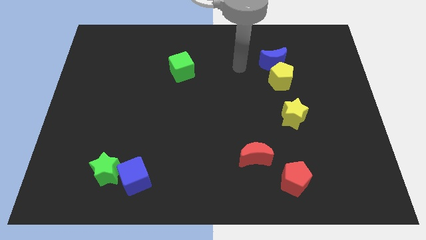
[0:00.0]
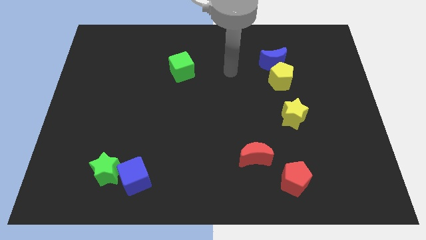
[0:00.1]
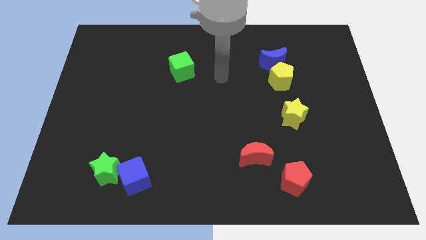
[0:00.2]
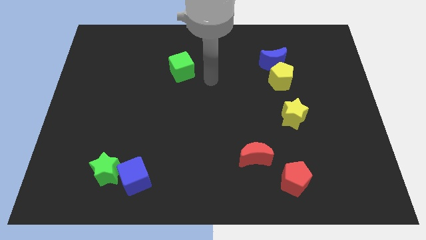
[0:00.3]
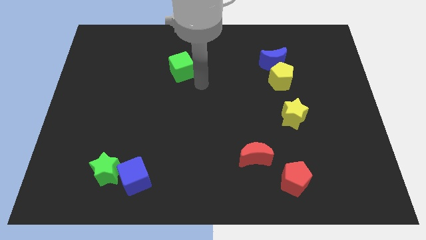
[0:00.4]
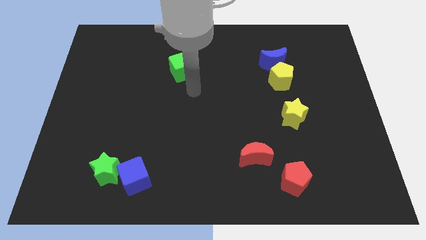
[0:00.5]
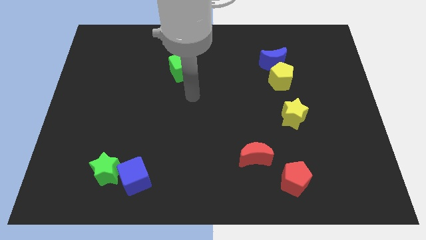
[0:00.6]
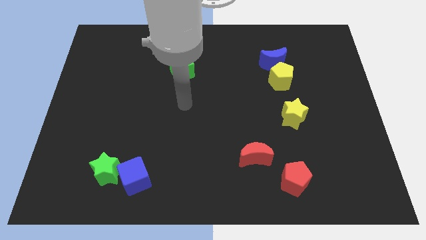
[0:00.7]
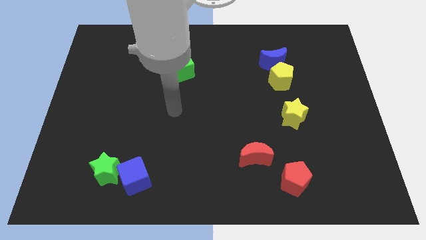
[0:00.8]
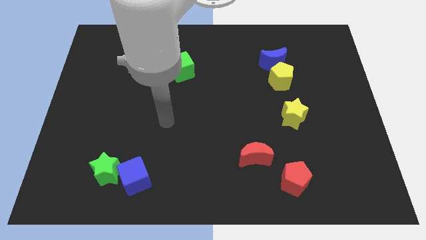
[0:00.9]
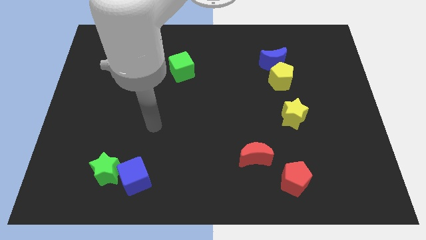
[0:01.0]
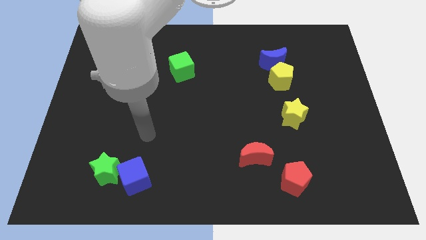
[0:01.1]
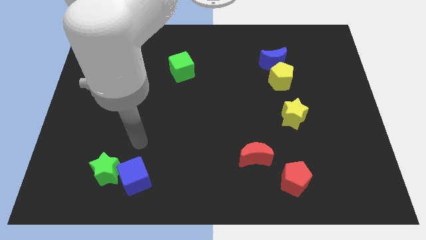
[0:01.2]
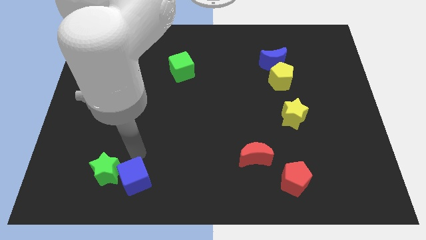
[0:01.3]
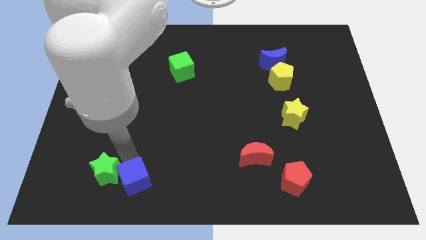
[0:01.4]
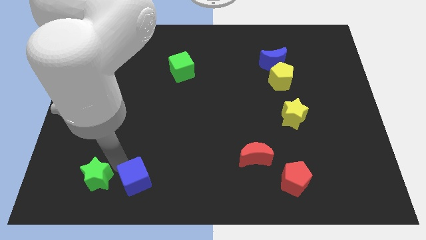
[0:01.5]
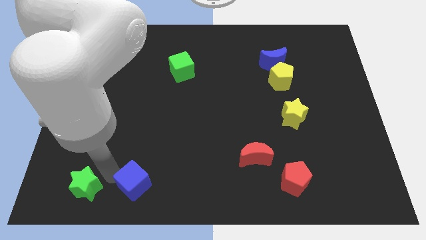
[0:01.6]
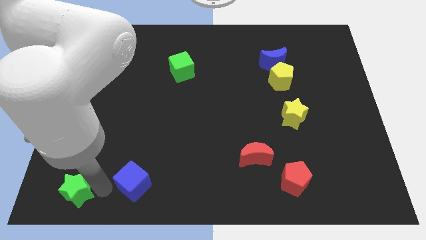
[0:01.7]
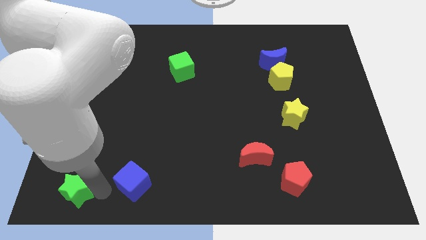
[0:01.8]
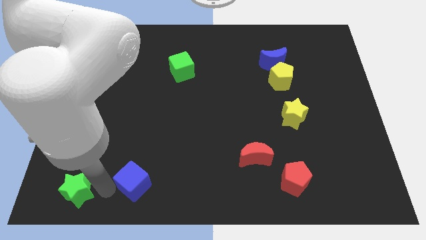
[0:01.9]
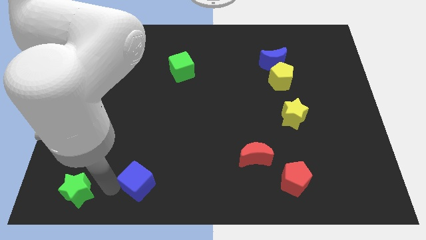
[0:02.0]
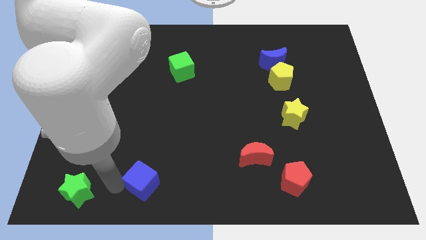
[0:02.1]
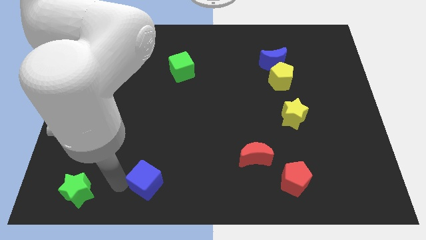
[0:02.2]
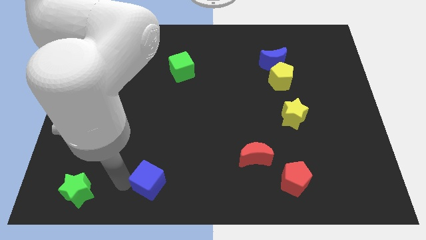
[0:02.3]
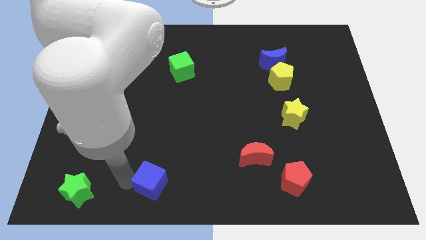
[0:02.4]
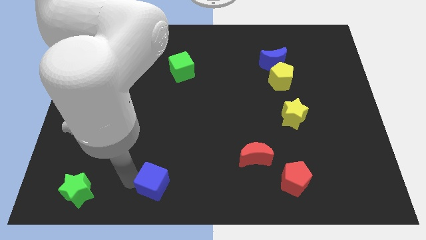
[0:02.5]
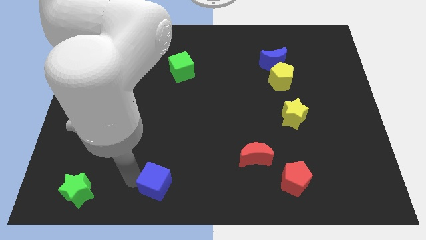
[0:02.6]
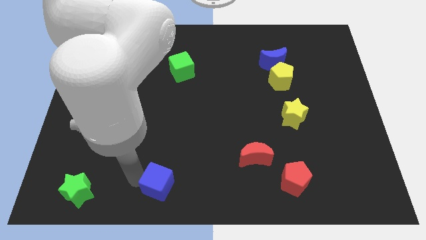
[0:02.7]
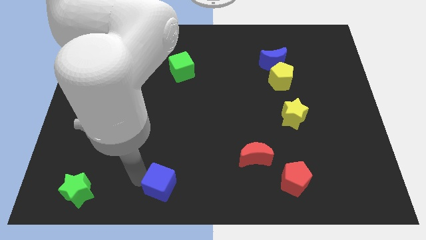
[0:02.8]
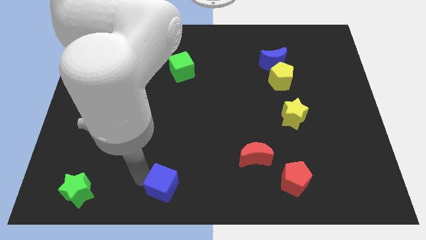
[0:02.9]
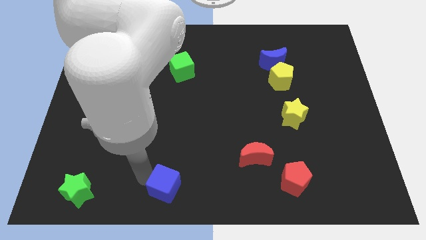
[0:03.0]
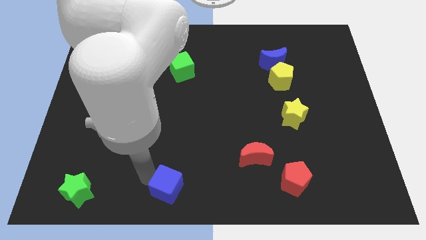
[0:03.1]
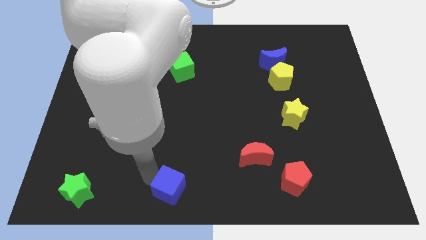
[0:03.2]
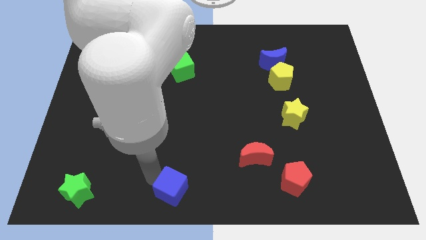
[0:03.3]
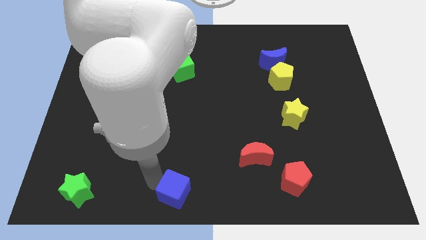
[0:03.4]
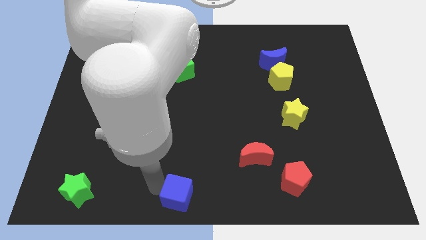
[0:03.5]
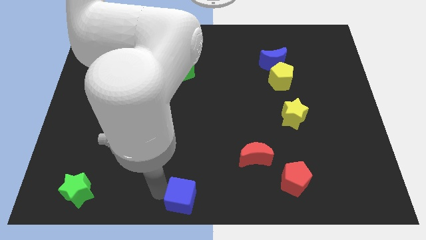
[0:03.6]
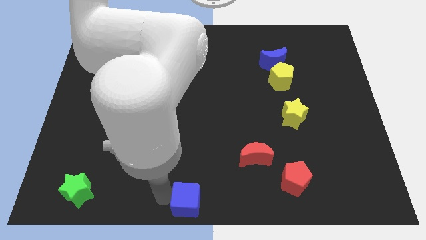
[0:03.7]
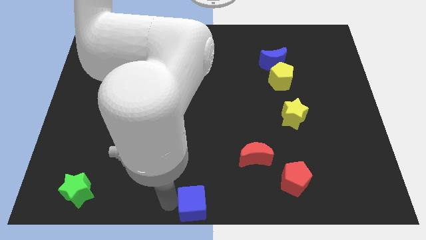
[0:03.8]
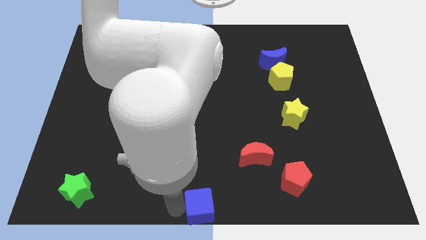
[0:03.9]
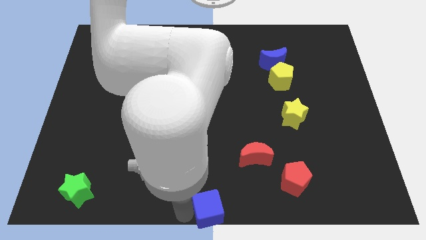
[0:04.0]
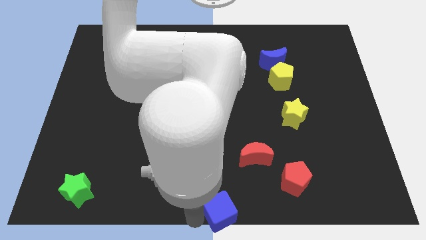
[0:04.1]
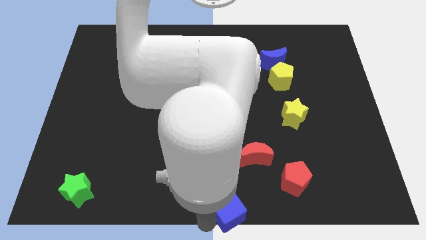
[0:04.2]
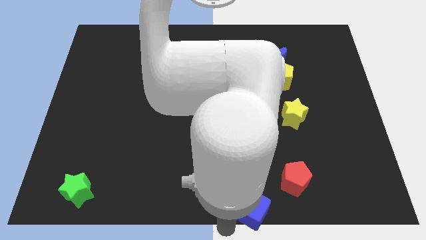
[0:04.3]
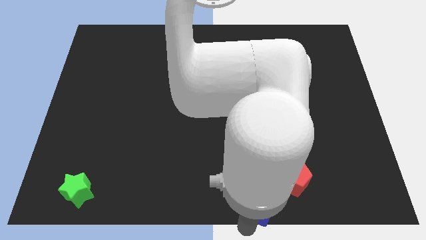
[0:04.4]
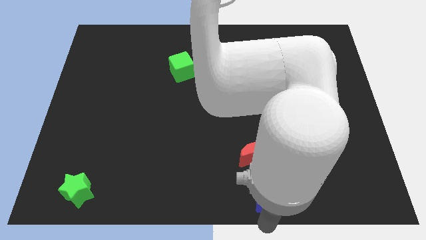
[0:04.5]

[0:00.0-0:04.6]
put the blue cube next to the red pentagon

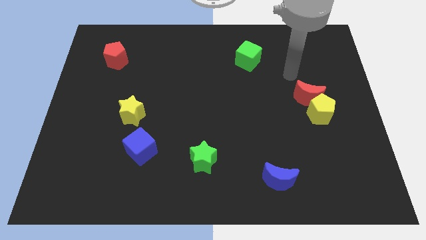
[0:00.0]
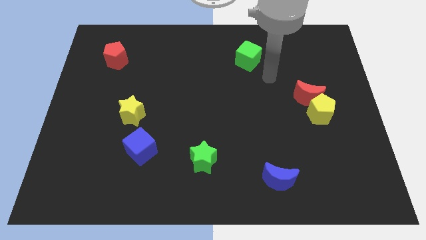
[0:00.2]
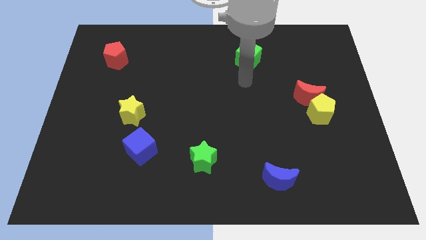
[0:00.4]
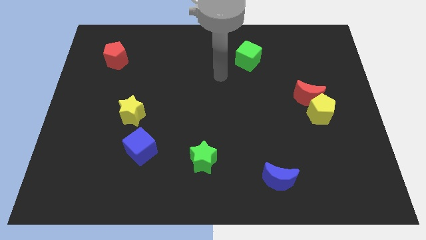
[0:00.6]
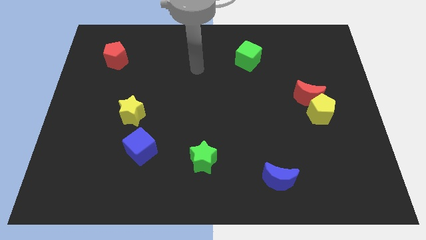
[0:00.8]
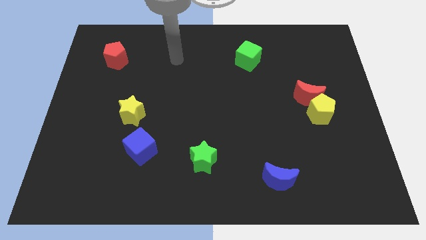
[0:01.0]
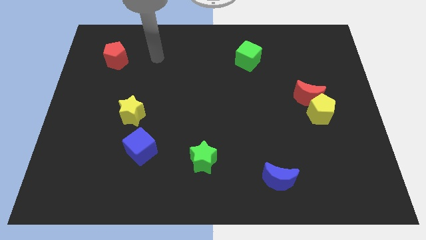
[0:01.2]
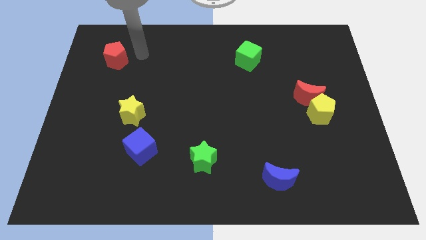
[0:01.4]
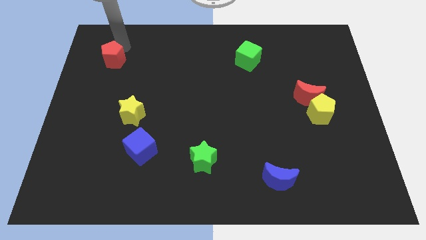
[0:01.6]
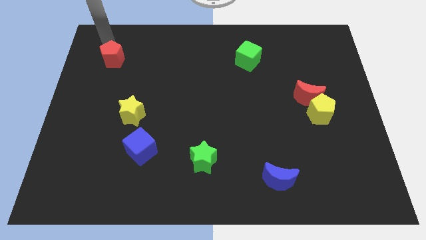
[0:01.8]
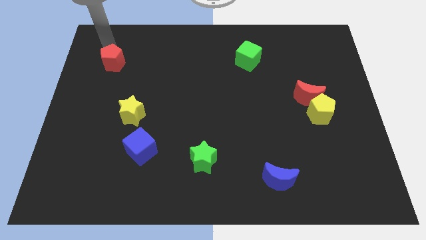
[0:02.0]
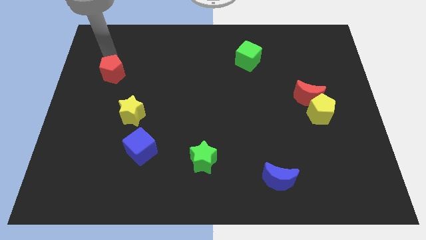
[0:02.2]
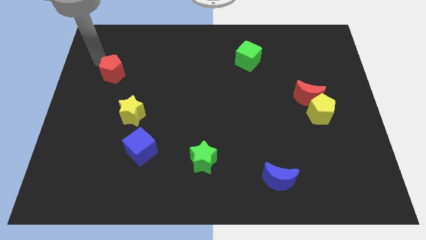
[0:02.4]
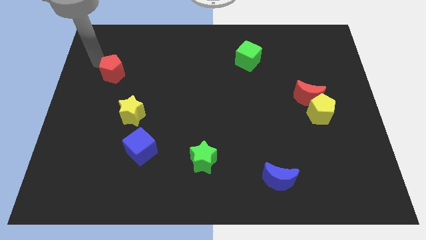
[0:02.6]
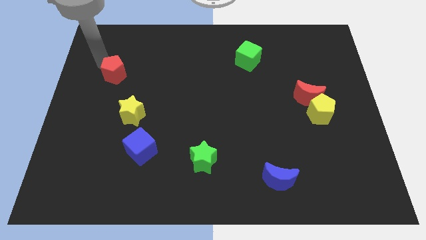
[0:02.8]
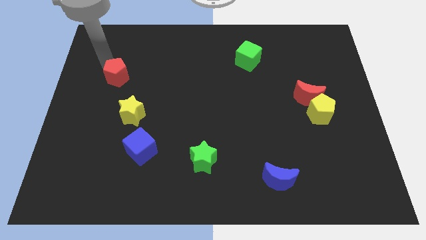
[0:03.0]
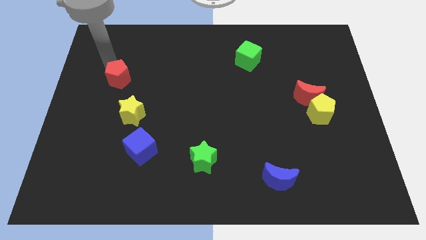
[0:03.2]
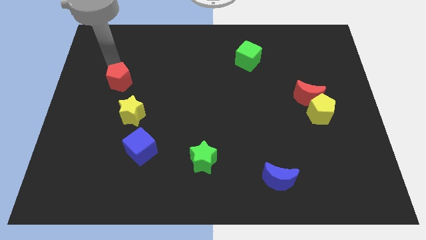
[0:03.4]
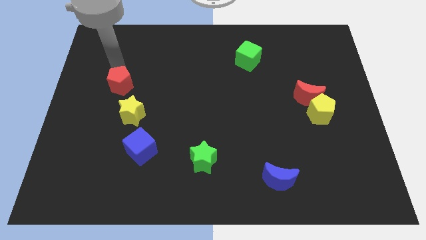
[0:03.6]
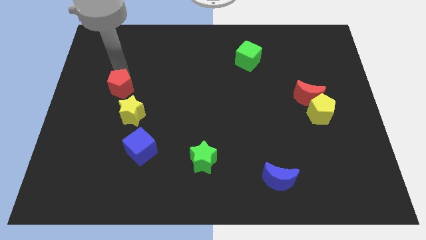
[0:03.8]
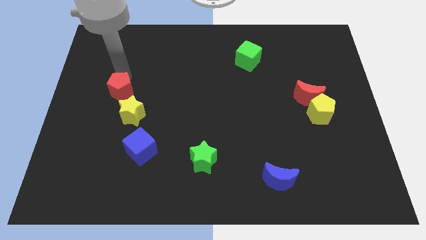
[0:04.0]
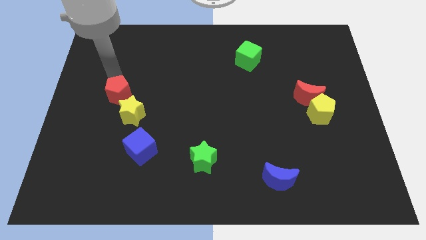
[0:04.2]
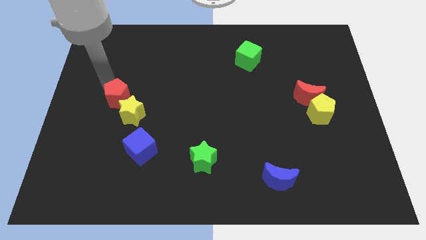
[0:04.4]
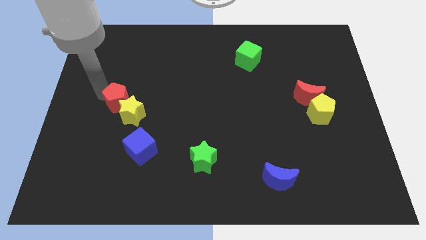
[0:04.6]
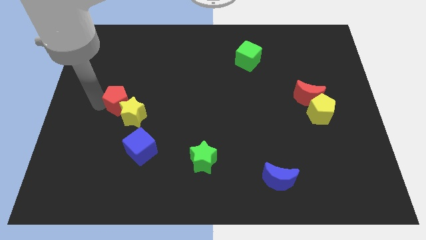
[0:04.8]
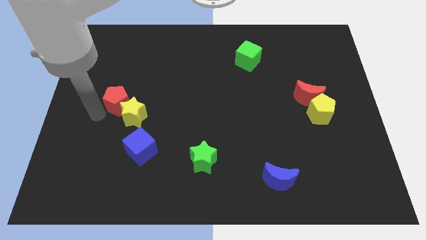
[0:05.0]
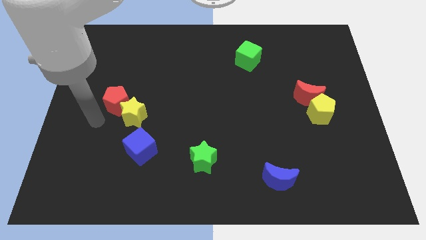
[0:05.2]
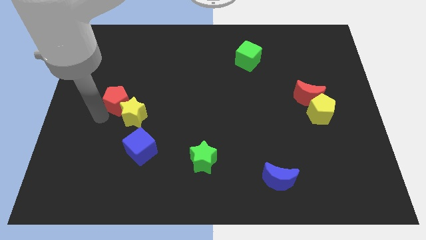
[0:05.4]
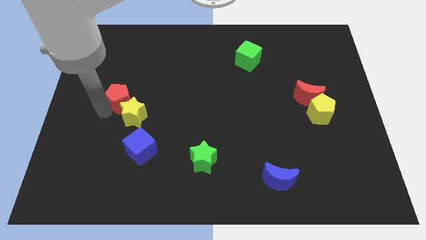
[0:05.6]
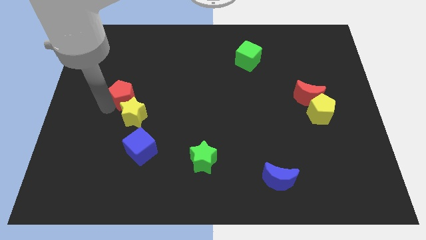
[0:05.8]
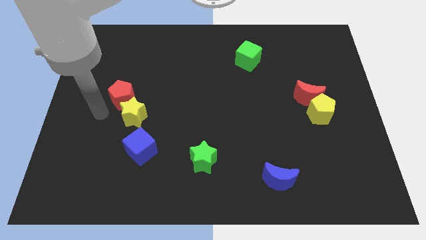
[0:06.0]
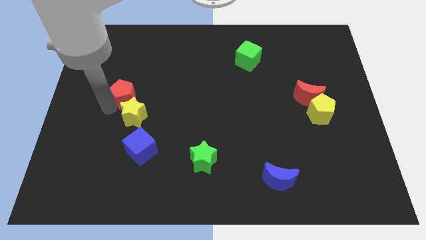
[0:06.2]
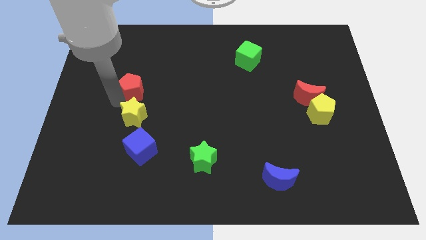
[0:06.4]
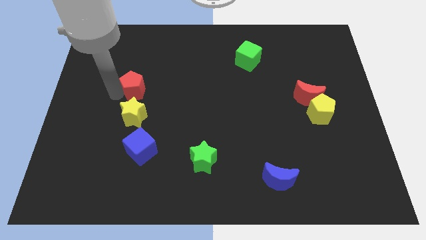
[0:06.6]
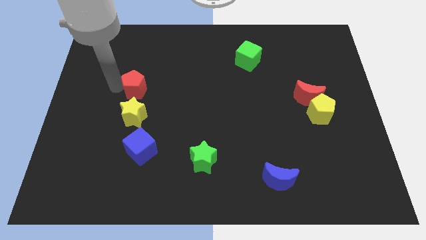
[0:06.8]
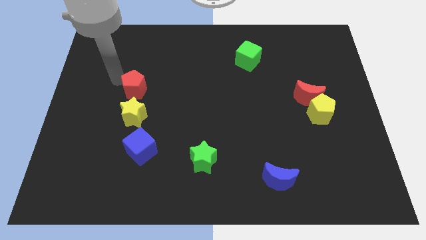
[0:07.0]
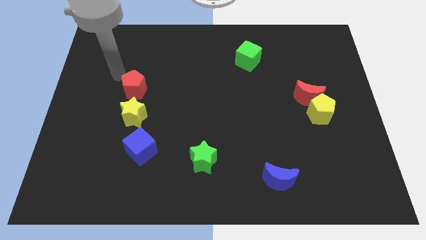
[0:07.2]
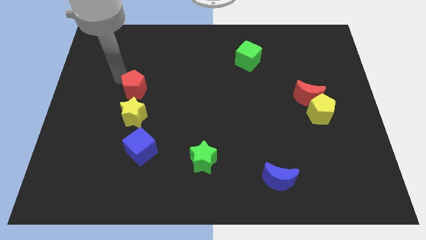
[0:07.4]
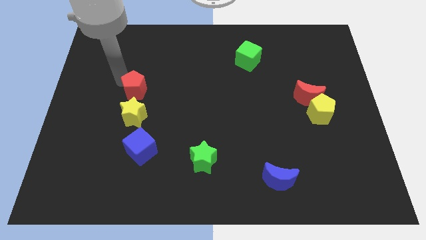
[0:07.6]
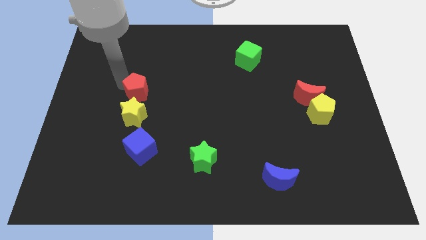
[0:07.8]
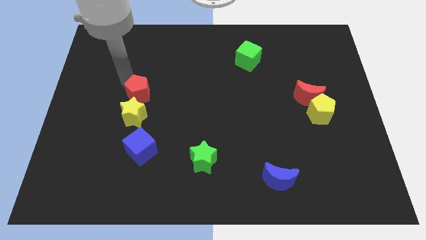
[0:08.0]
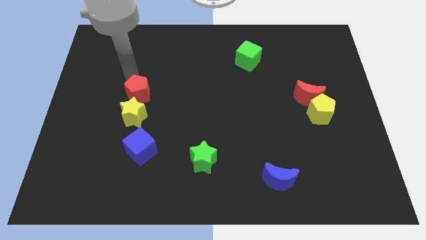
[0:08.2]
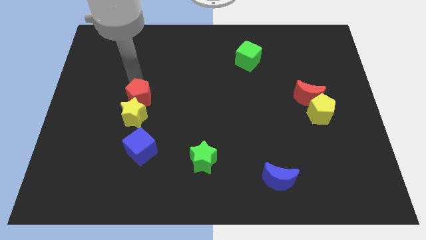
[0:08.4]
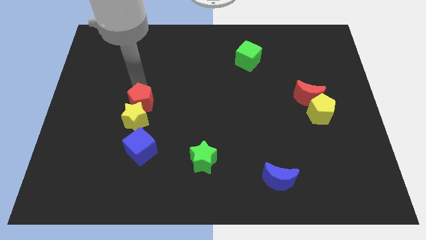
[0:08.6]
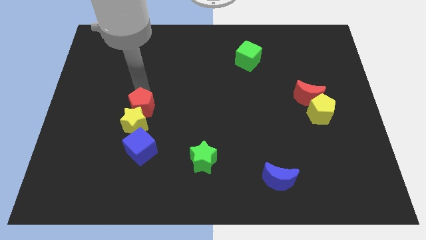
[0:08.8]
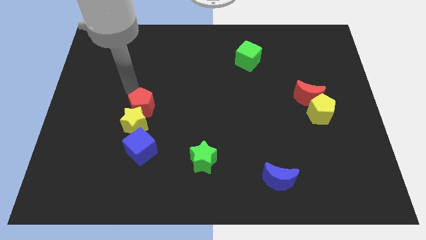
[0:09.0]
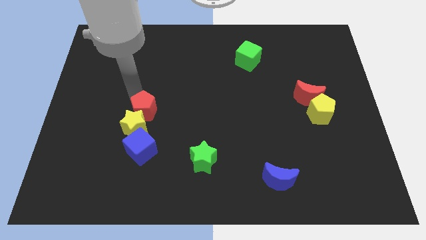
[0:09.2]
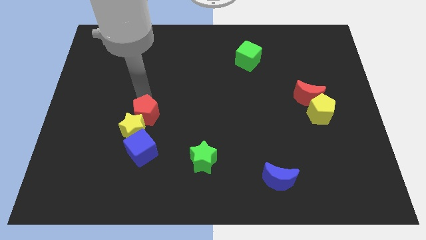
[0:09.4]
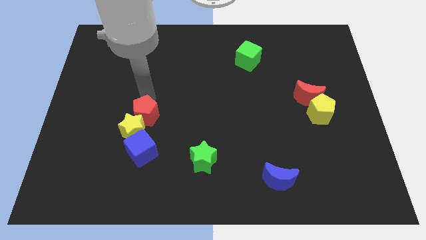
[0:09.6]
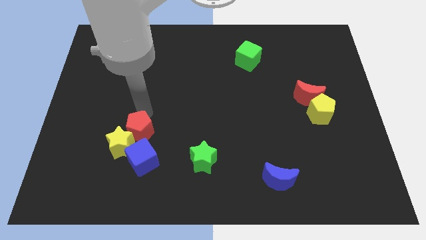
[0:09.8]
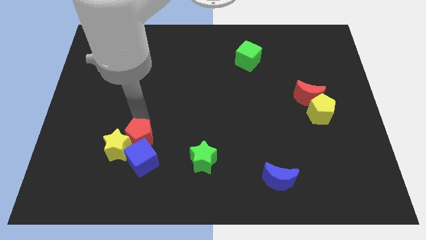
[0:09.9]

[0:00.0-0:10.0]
move the red pentagon towards the blue cube
